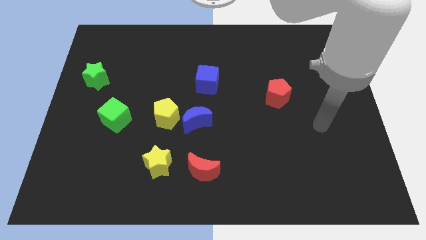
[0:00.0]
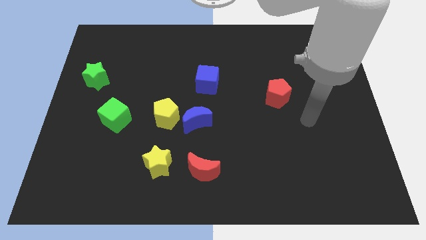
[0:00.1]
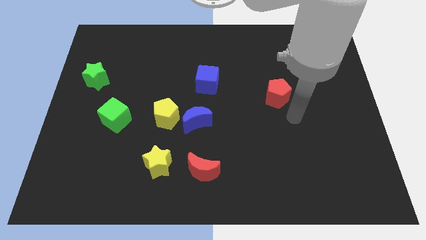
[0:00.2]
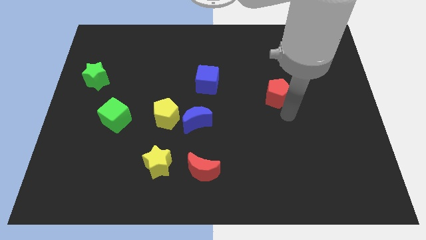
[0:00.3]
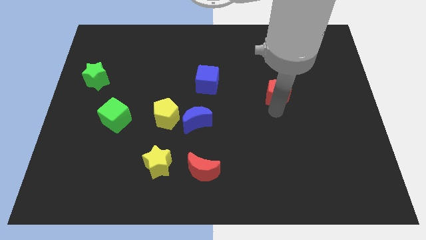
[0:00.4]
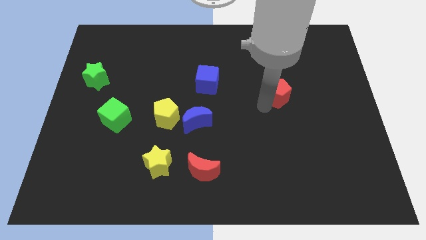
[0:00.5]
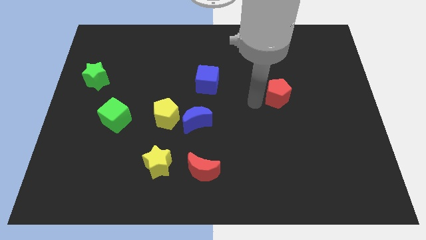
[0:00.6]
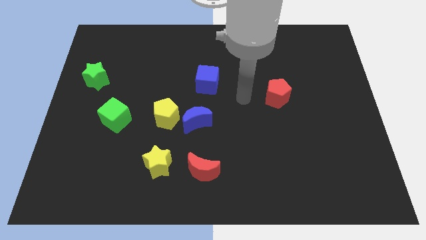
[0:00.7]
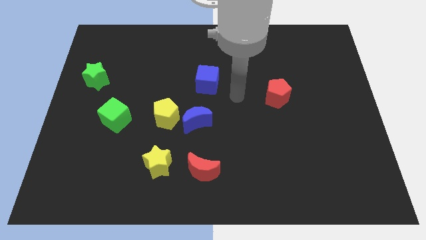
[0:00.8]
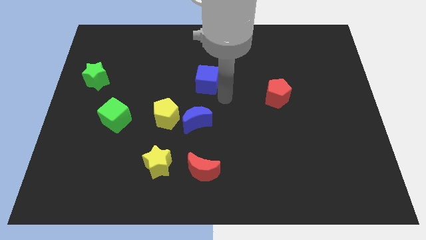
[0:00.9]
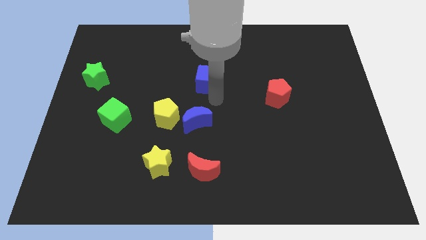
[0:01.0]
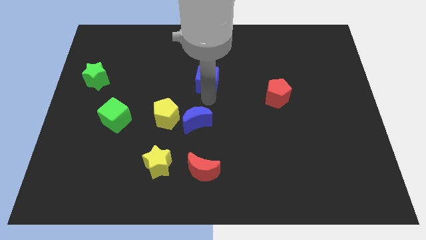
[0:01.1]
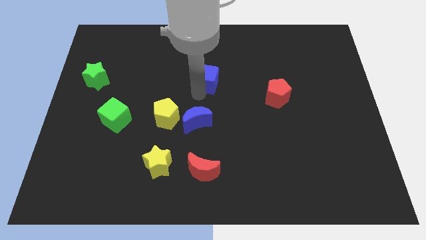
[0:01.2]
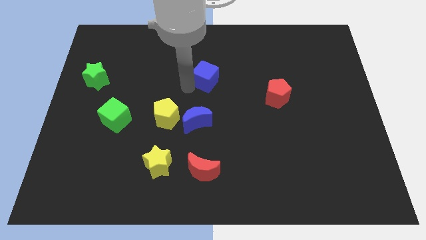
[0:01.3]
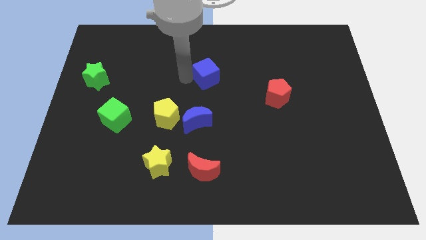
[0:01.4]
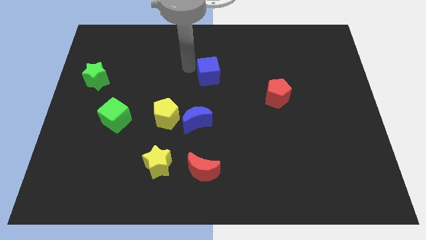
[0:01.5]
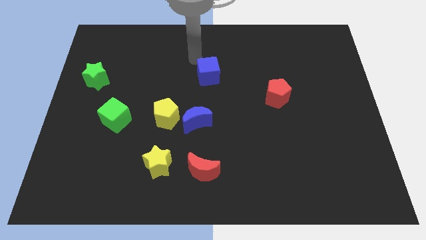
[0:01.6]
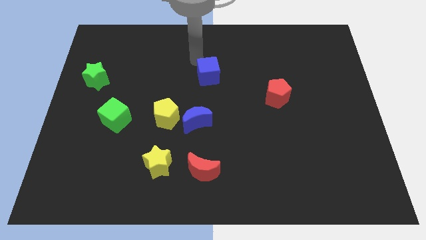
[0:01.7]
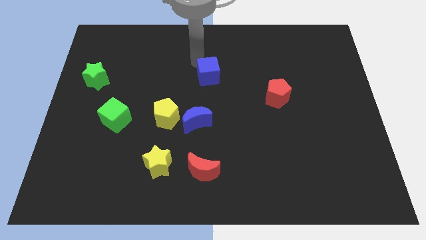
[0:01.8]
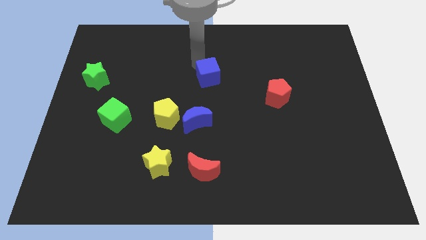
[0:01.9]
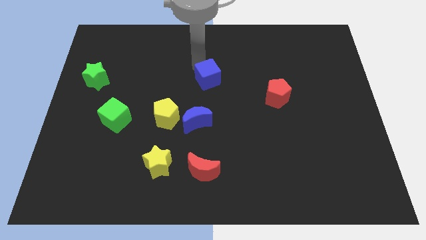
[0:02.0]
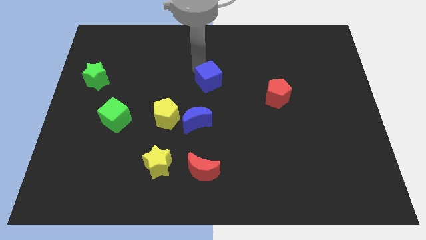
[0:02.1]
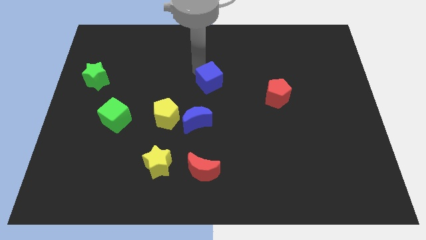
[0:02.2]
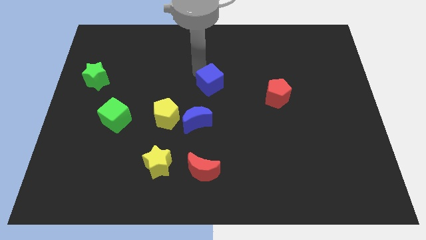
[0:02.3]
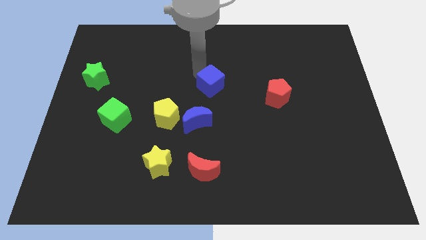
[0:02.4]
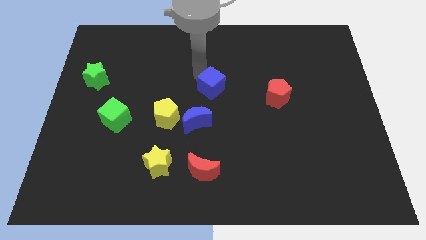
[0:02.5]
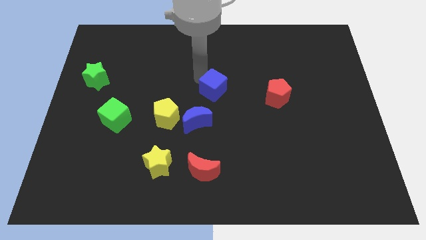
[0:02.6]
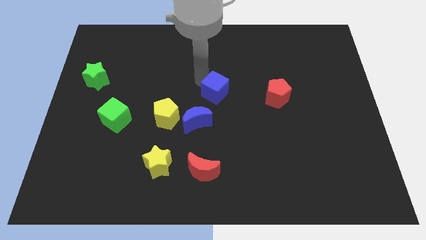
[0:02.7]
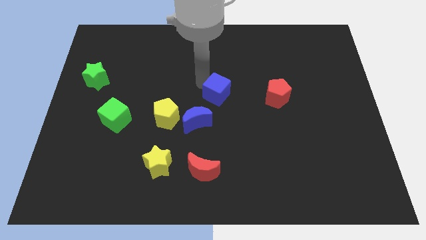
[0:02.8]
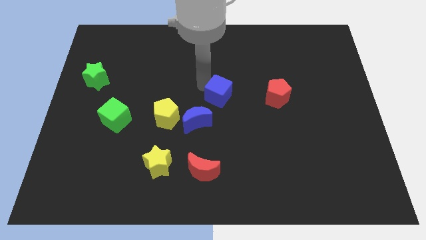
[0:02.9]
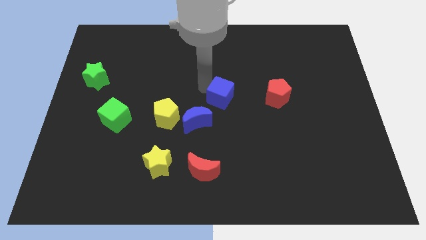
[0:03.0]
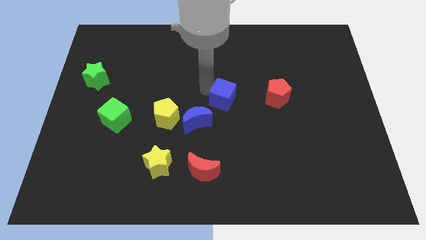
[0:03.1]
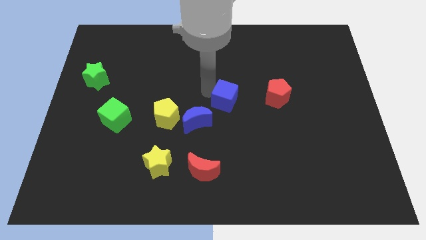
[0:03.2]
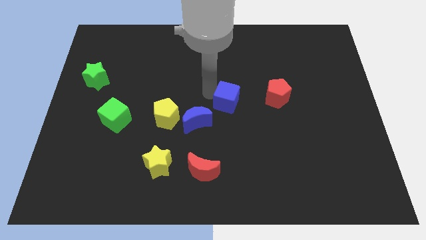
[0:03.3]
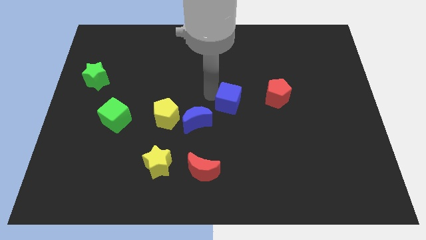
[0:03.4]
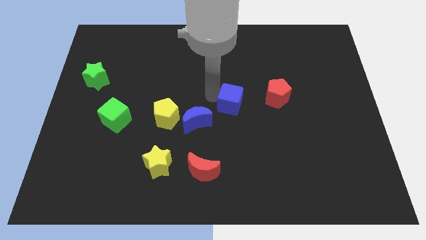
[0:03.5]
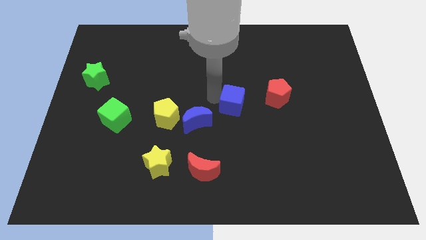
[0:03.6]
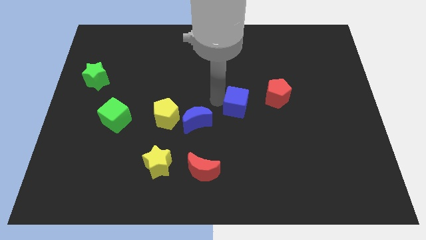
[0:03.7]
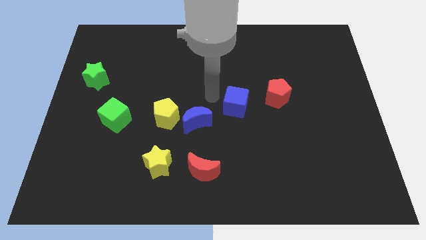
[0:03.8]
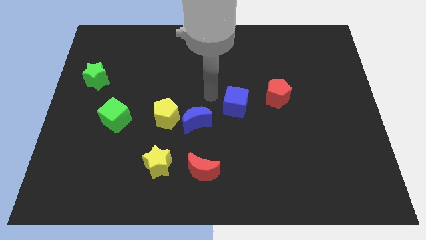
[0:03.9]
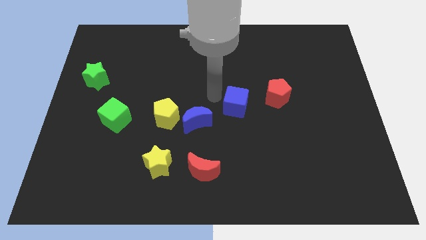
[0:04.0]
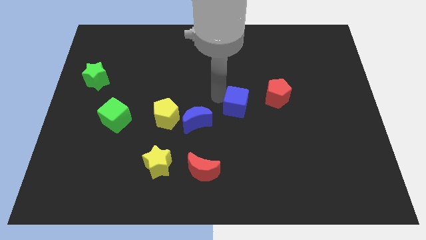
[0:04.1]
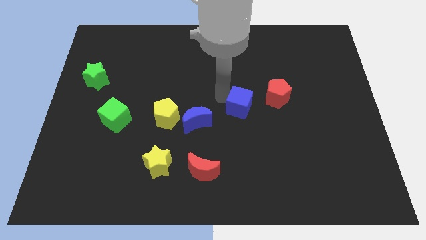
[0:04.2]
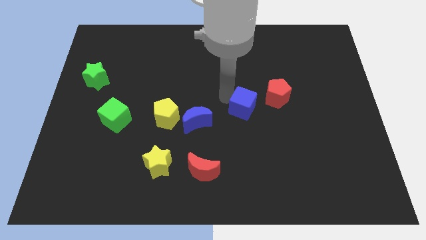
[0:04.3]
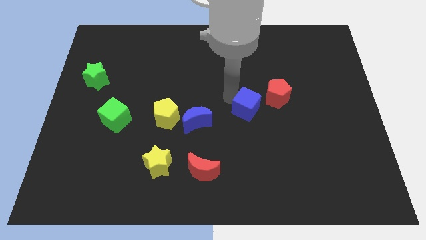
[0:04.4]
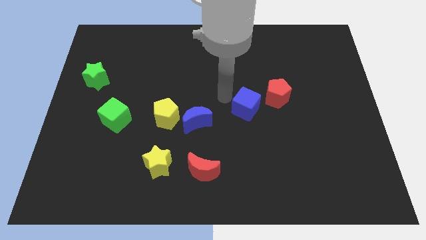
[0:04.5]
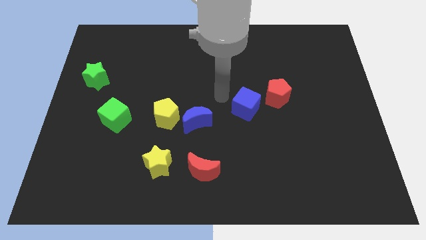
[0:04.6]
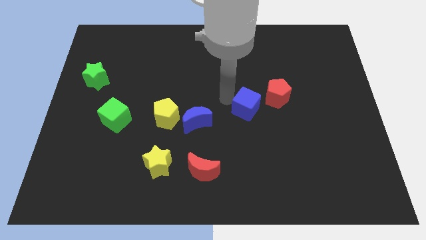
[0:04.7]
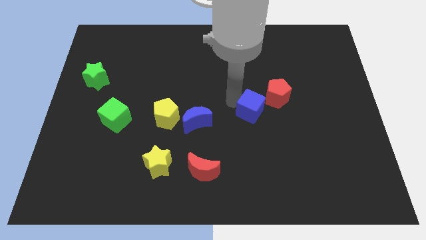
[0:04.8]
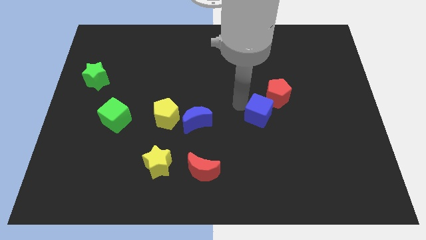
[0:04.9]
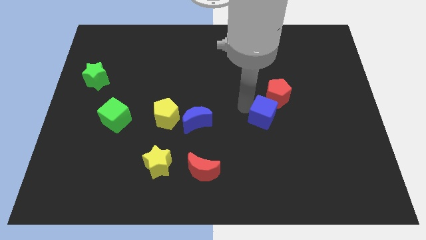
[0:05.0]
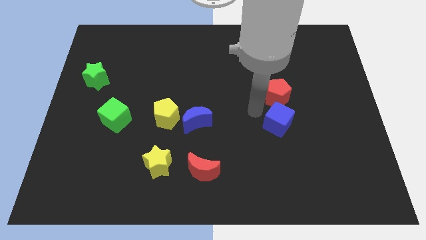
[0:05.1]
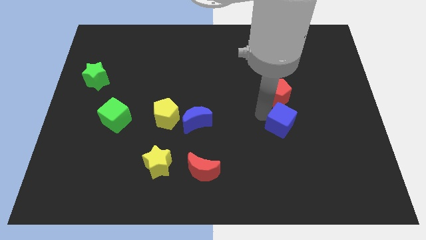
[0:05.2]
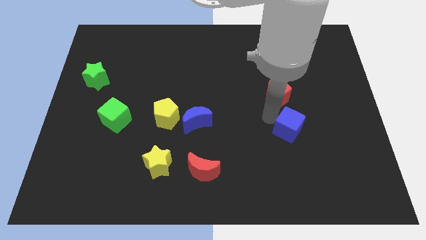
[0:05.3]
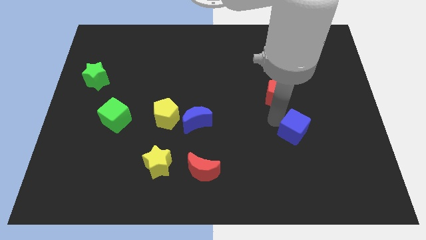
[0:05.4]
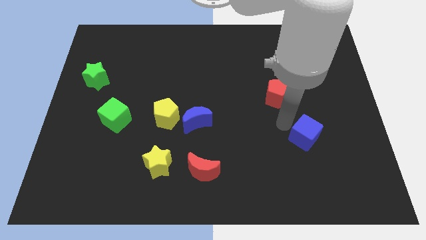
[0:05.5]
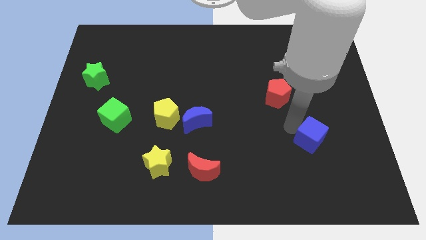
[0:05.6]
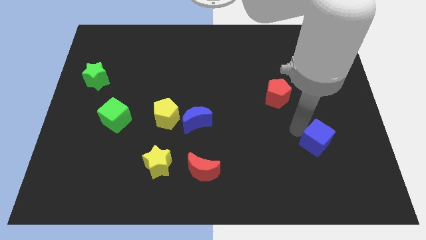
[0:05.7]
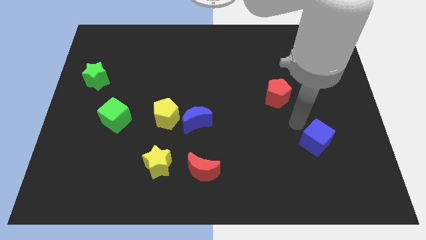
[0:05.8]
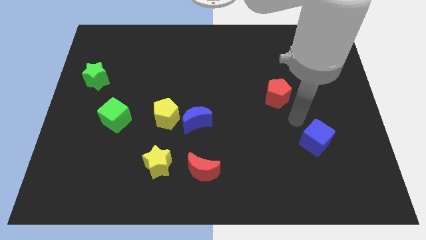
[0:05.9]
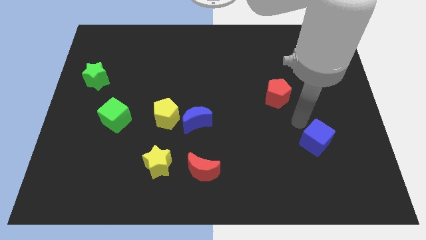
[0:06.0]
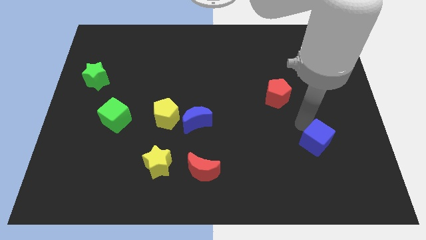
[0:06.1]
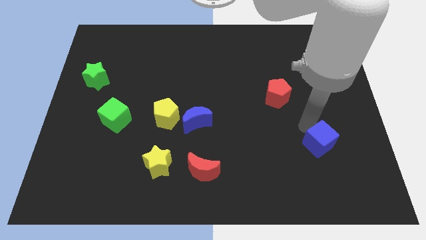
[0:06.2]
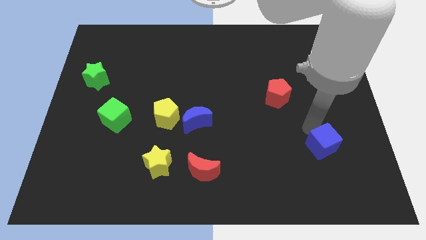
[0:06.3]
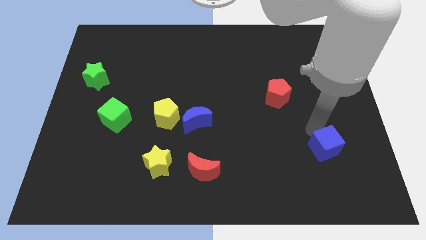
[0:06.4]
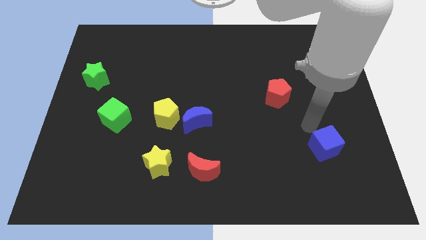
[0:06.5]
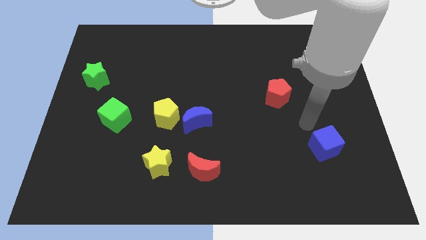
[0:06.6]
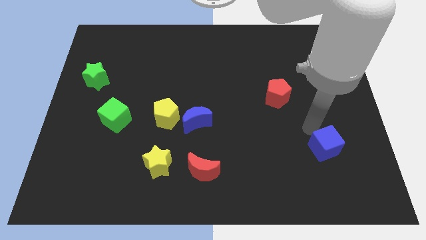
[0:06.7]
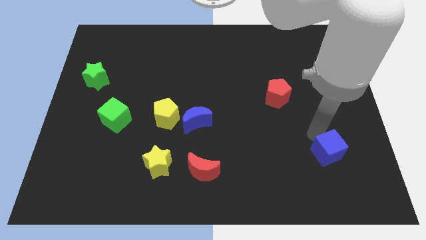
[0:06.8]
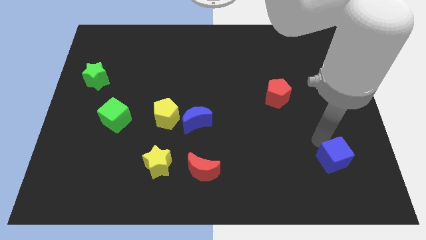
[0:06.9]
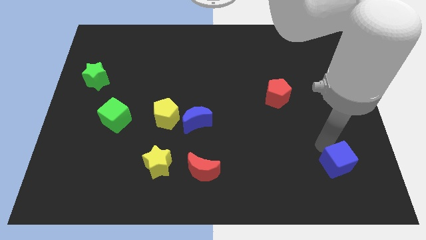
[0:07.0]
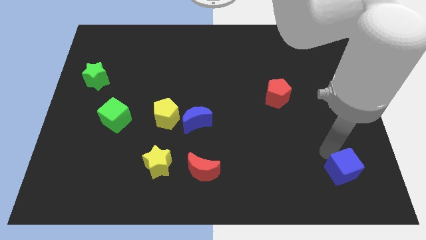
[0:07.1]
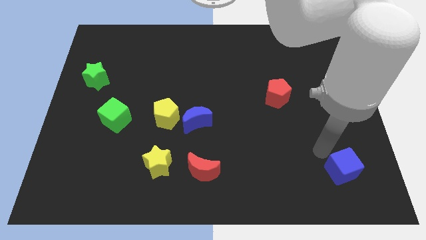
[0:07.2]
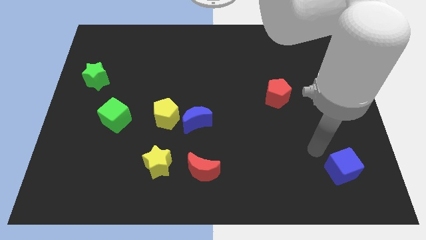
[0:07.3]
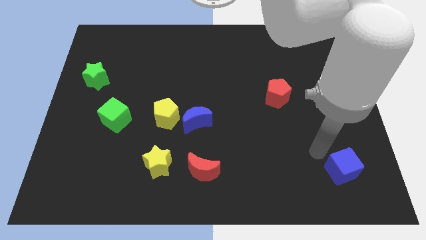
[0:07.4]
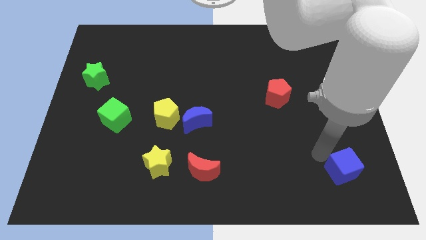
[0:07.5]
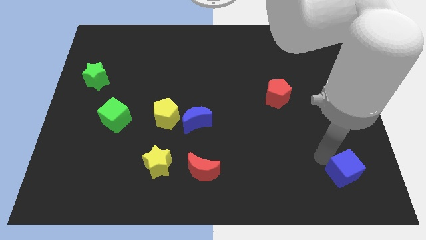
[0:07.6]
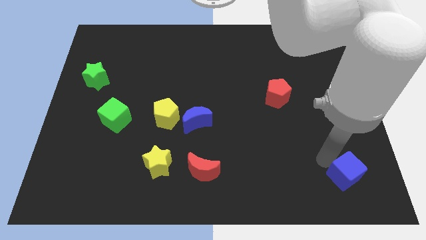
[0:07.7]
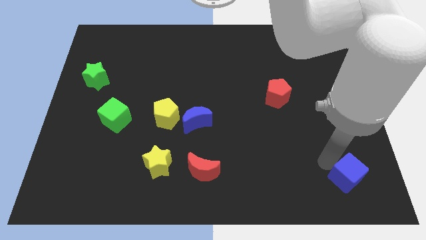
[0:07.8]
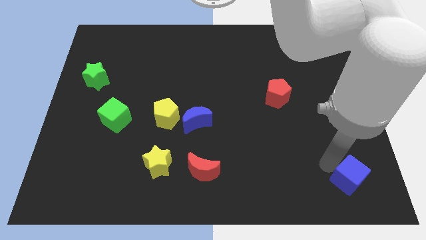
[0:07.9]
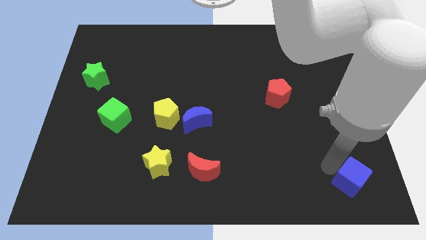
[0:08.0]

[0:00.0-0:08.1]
put the blue cube to the bottom right of the board
